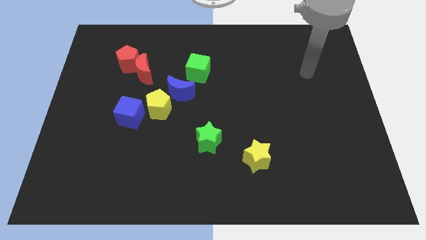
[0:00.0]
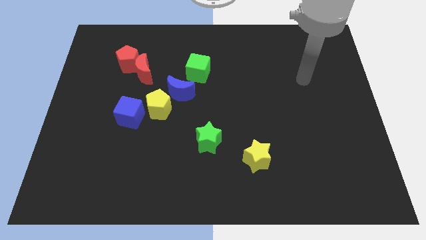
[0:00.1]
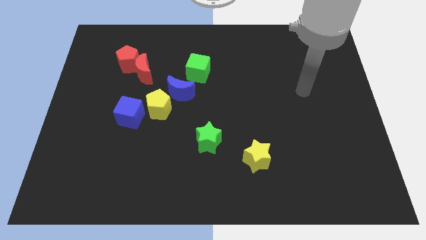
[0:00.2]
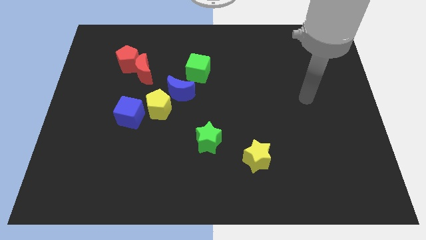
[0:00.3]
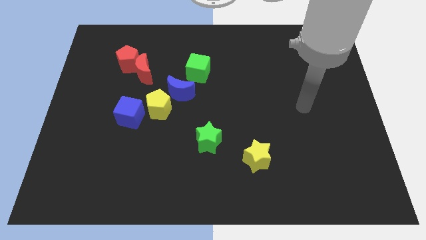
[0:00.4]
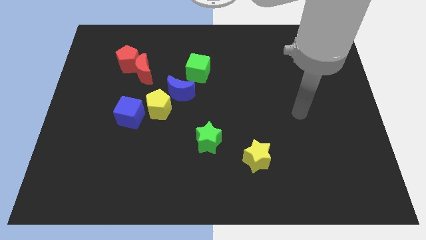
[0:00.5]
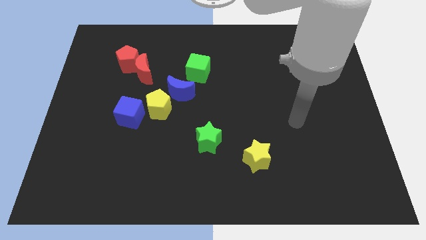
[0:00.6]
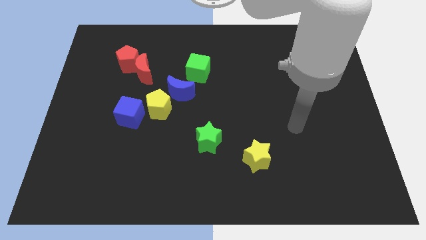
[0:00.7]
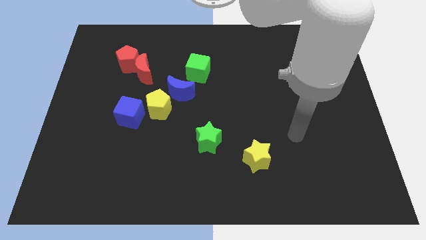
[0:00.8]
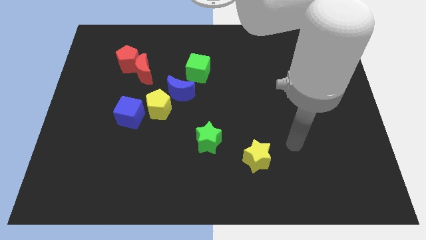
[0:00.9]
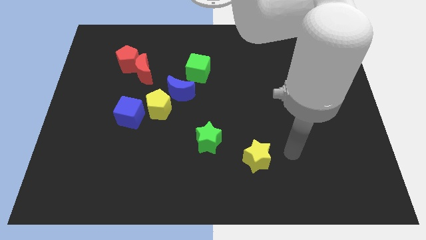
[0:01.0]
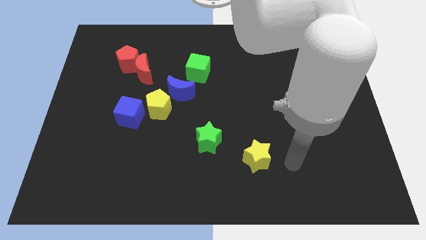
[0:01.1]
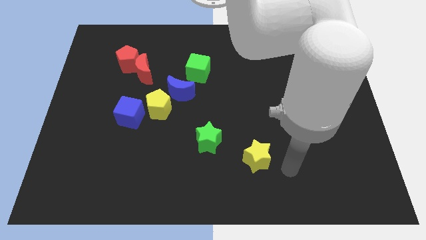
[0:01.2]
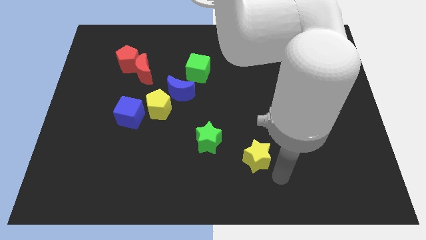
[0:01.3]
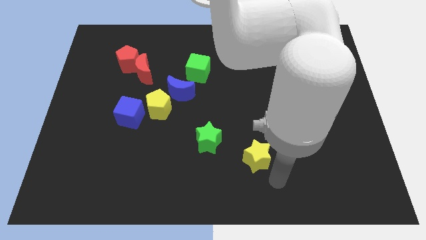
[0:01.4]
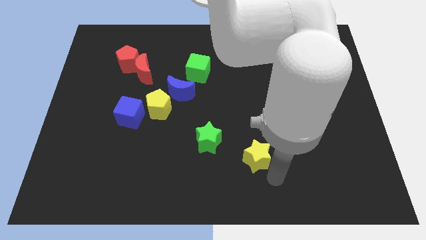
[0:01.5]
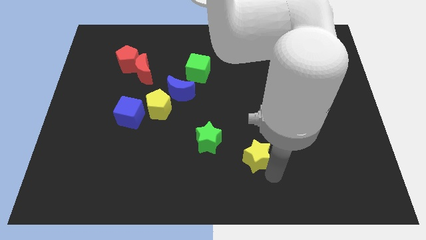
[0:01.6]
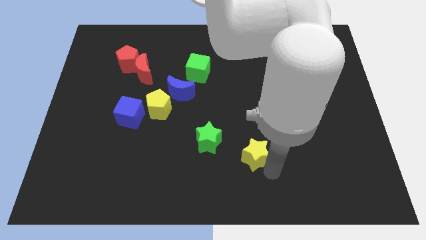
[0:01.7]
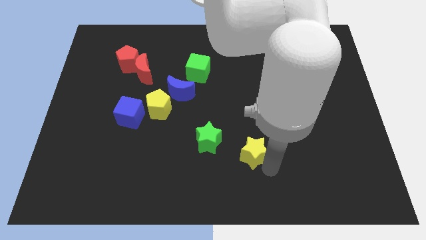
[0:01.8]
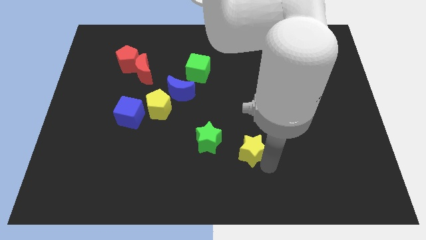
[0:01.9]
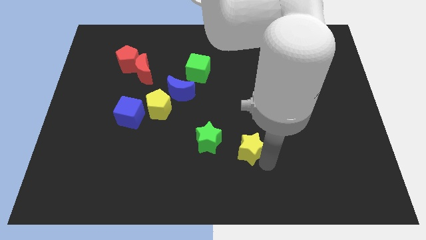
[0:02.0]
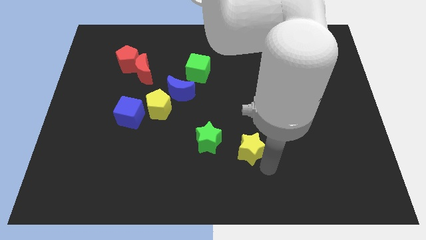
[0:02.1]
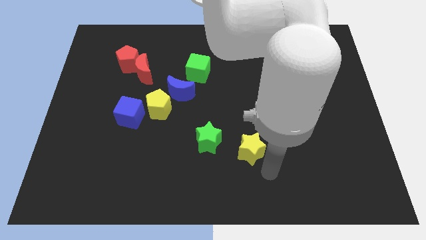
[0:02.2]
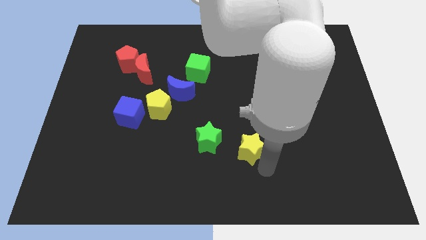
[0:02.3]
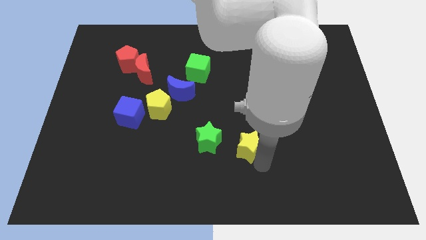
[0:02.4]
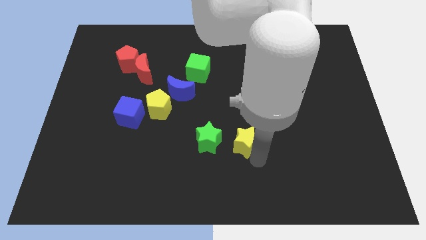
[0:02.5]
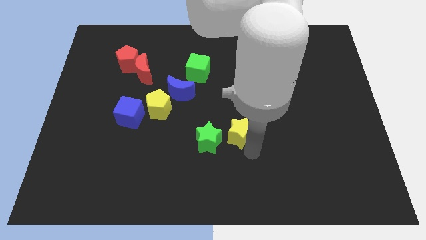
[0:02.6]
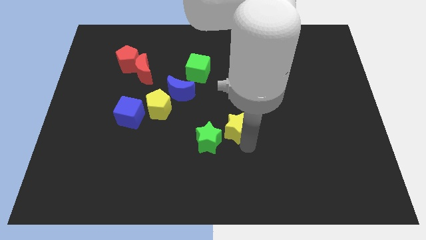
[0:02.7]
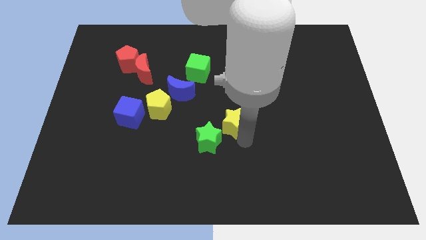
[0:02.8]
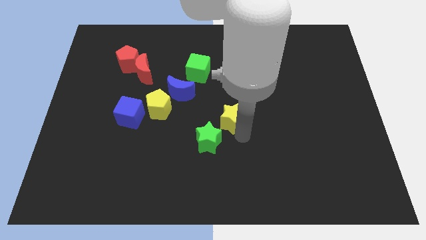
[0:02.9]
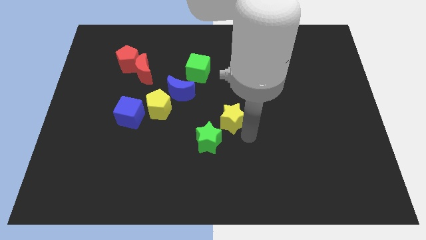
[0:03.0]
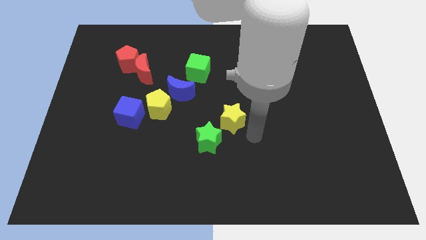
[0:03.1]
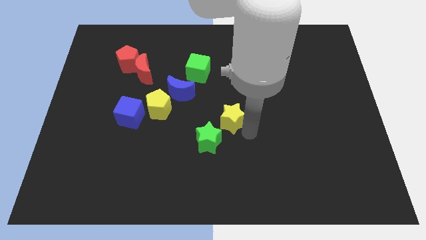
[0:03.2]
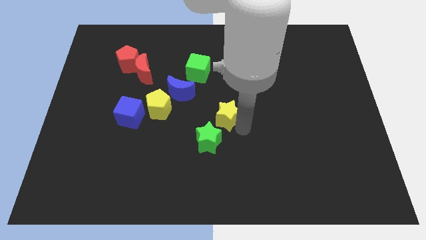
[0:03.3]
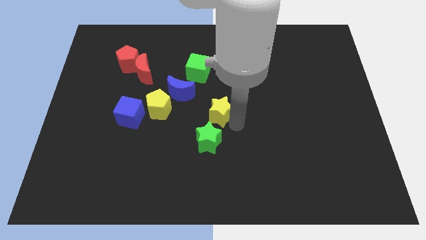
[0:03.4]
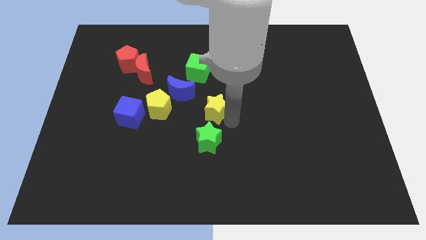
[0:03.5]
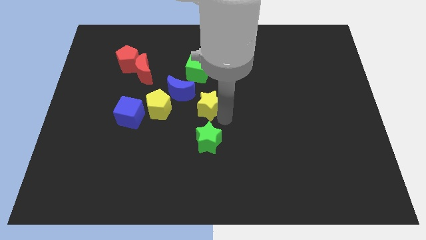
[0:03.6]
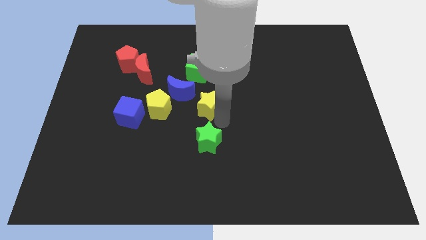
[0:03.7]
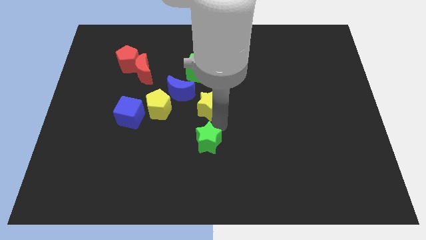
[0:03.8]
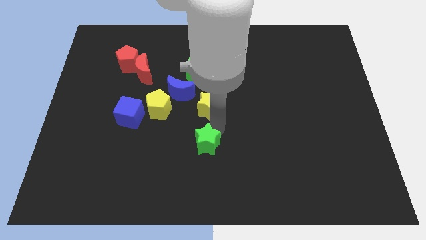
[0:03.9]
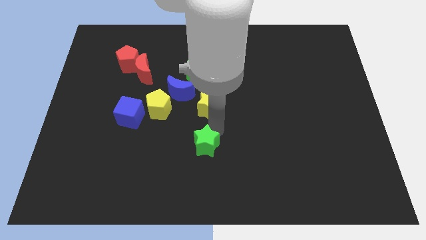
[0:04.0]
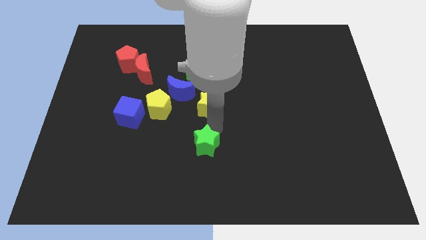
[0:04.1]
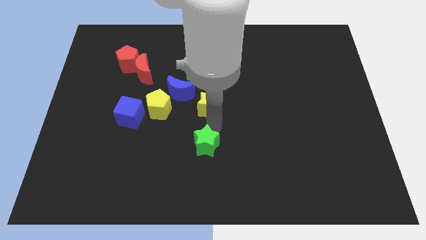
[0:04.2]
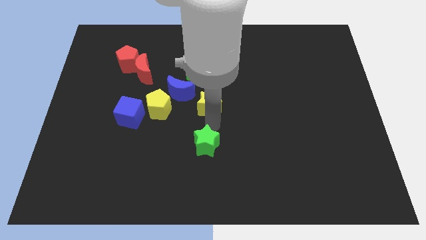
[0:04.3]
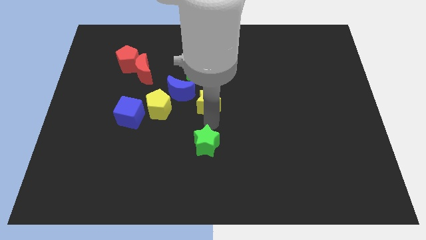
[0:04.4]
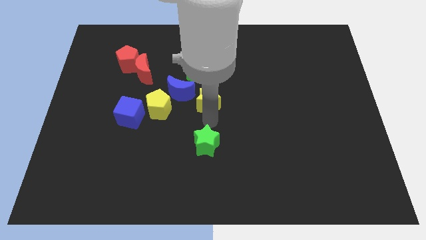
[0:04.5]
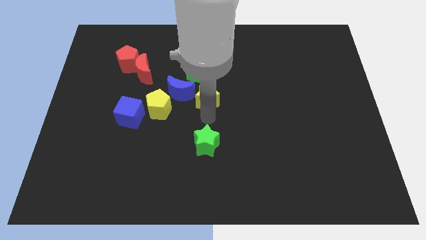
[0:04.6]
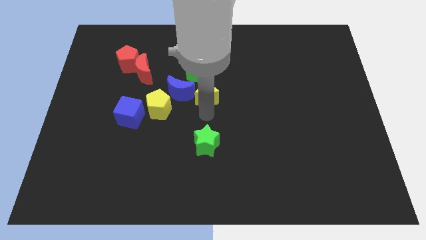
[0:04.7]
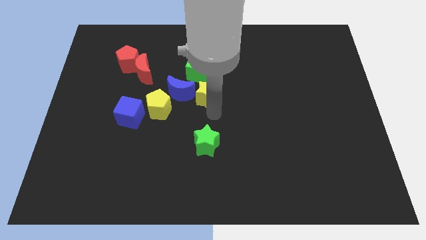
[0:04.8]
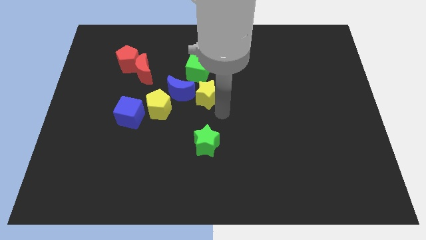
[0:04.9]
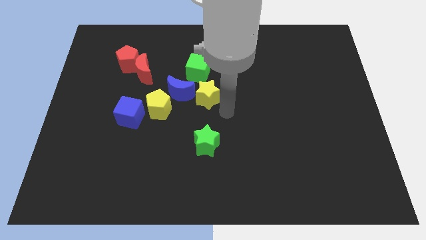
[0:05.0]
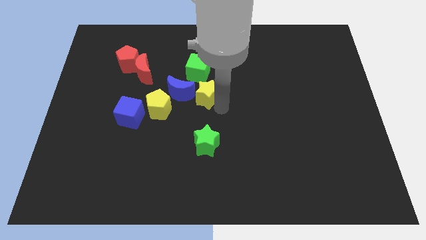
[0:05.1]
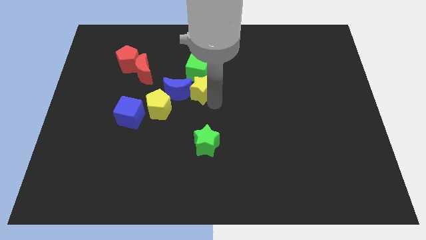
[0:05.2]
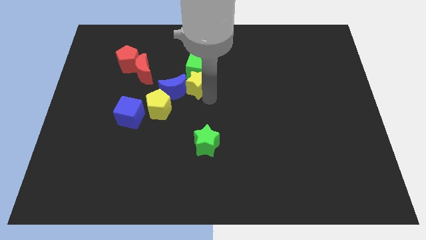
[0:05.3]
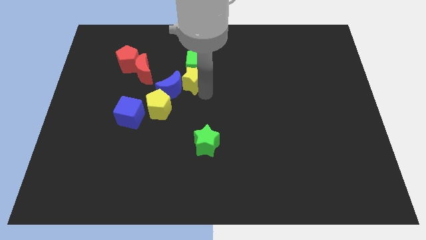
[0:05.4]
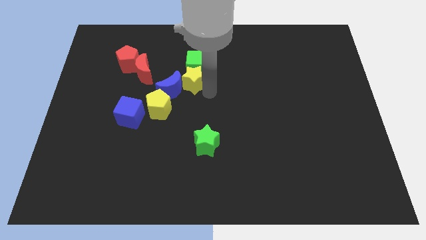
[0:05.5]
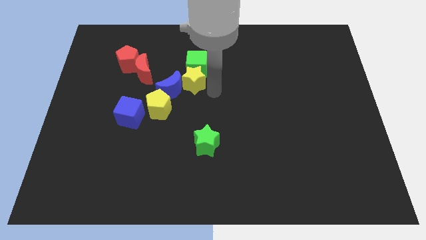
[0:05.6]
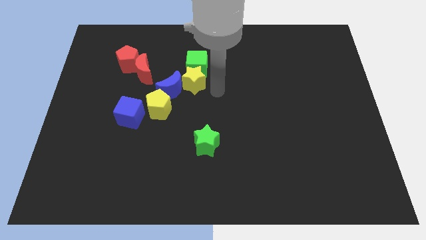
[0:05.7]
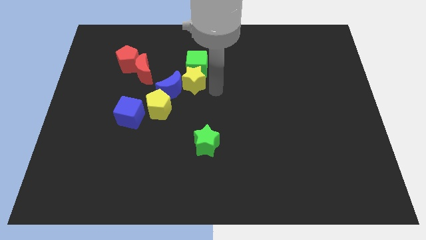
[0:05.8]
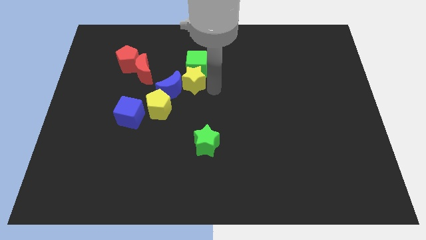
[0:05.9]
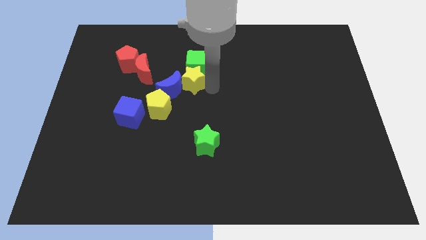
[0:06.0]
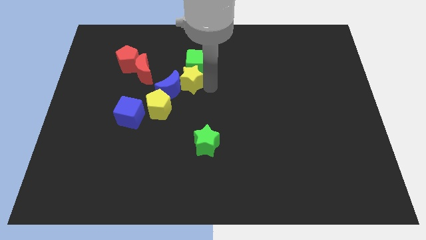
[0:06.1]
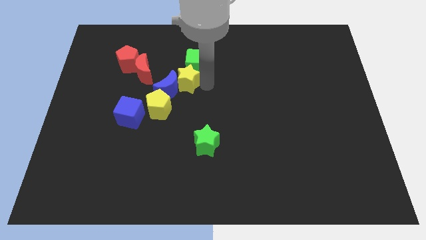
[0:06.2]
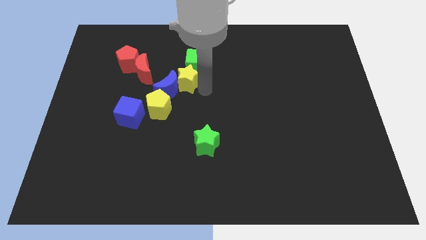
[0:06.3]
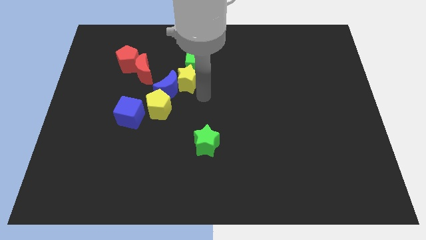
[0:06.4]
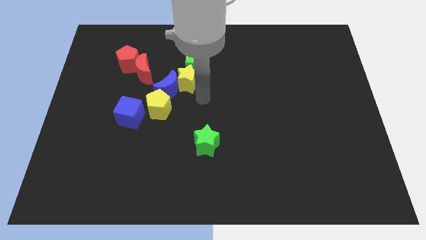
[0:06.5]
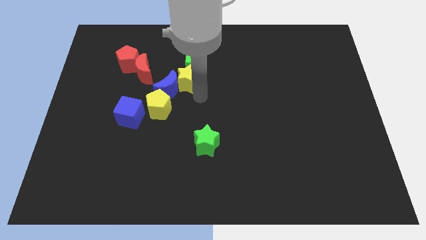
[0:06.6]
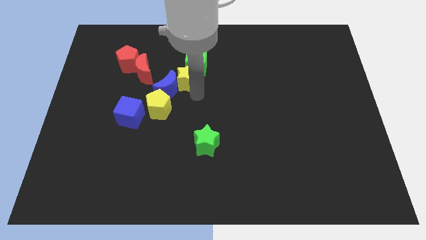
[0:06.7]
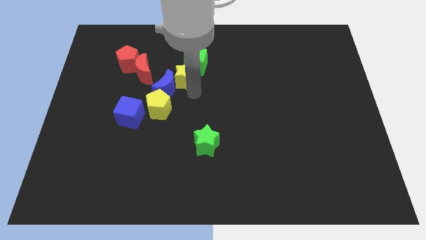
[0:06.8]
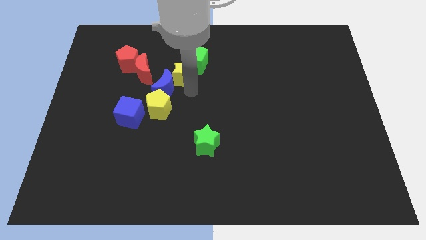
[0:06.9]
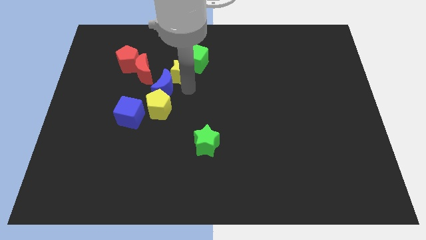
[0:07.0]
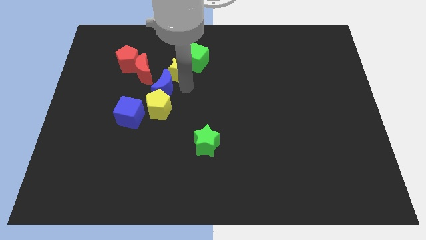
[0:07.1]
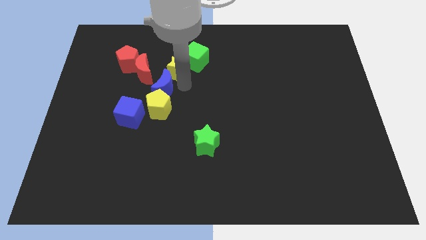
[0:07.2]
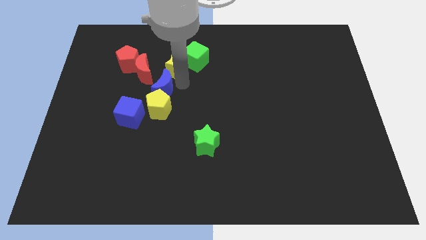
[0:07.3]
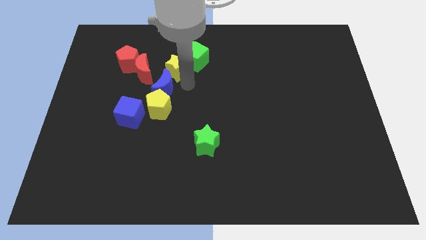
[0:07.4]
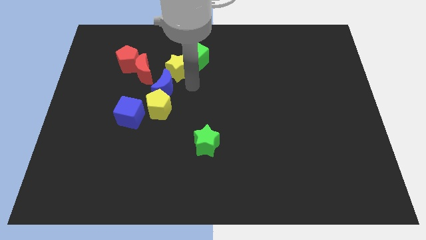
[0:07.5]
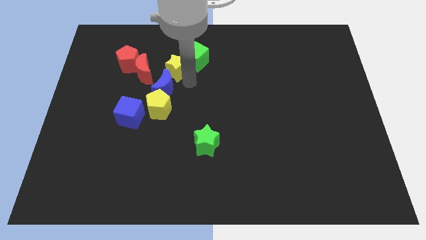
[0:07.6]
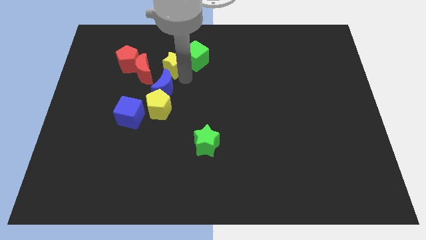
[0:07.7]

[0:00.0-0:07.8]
slide the yellow star diagonally up and to the right of the red moon
